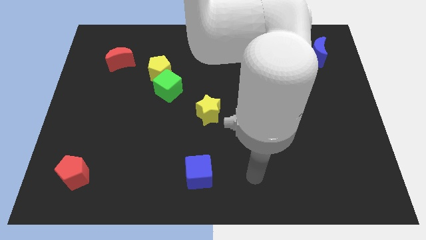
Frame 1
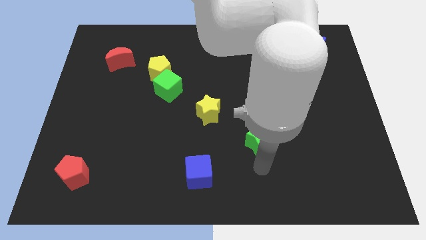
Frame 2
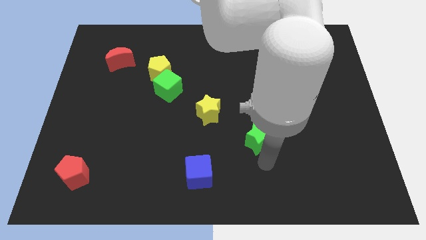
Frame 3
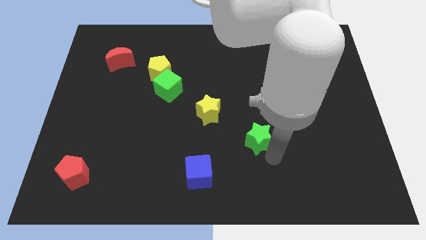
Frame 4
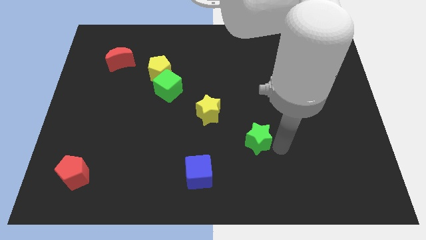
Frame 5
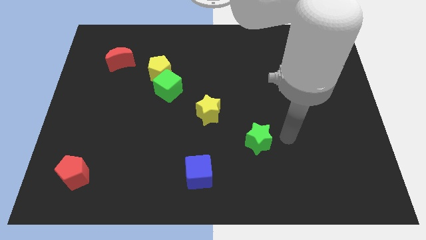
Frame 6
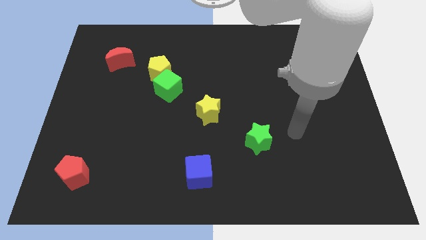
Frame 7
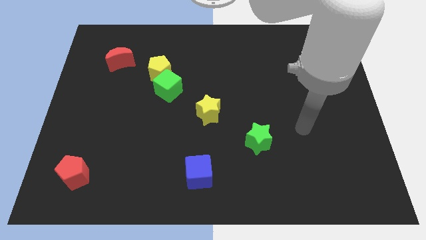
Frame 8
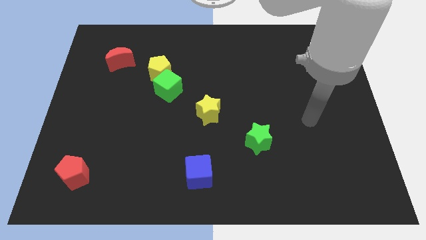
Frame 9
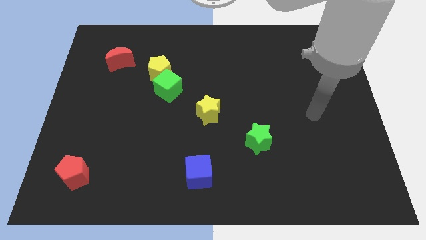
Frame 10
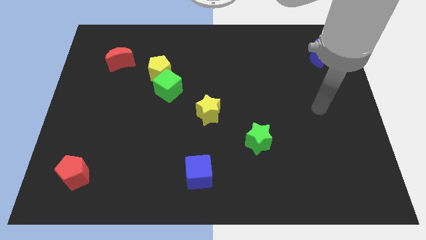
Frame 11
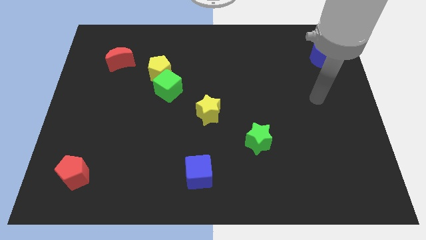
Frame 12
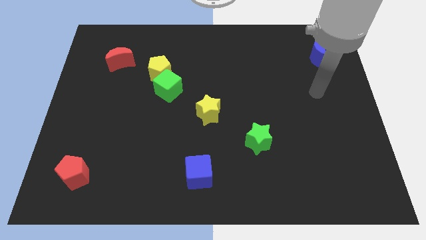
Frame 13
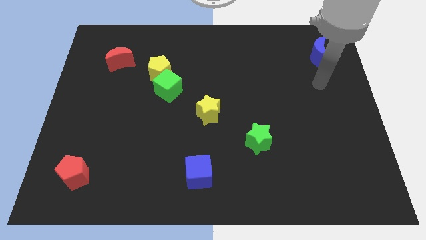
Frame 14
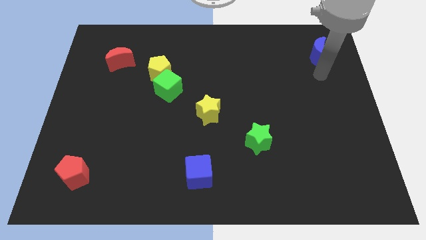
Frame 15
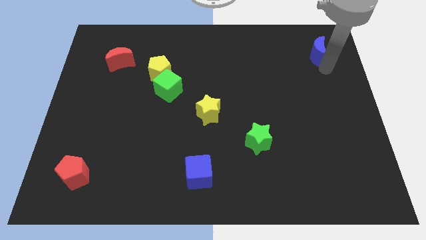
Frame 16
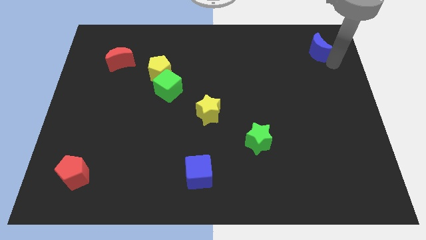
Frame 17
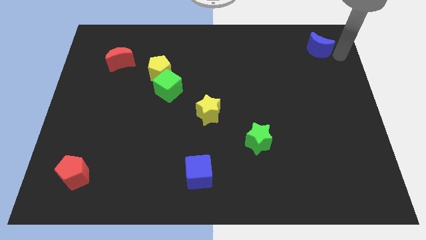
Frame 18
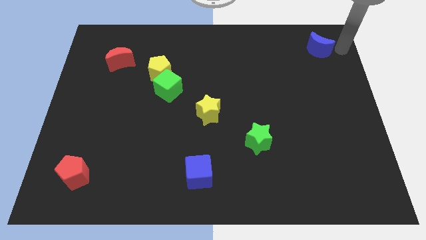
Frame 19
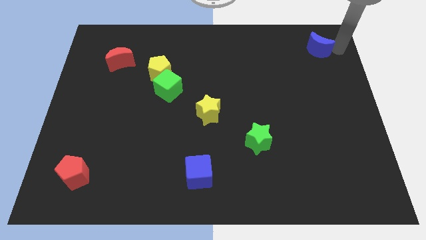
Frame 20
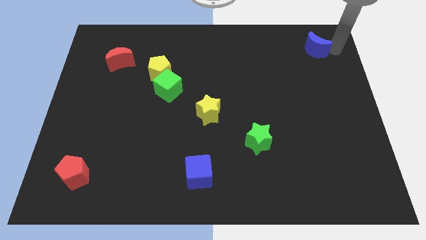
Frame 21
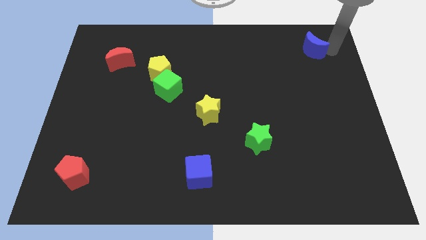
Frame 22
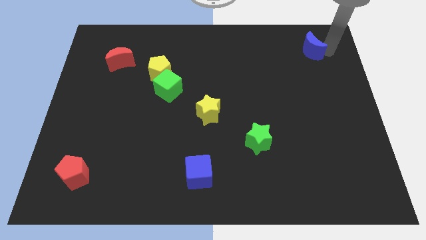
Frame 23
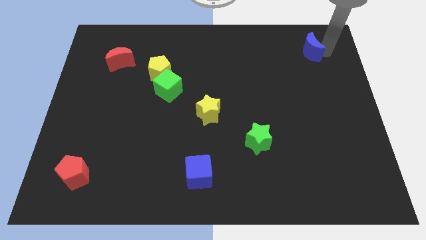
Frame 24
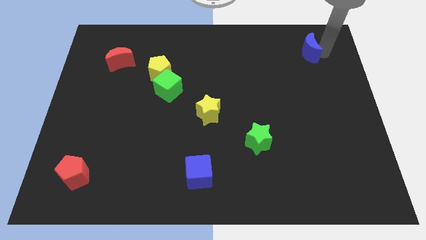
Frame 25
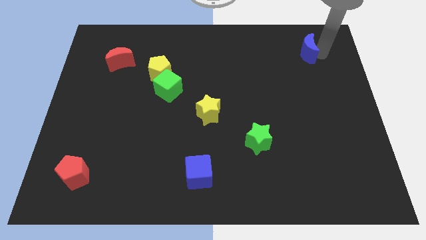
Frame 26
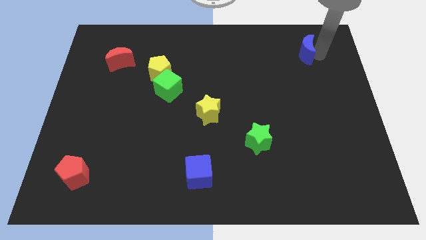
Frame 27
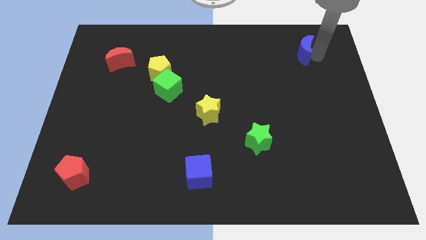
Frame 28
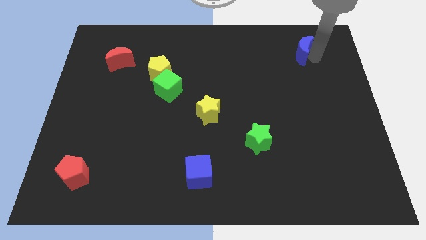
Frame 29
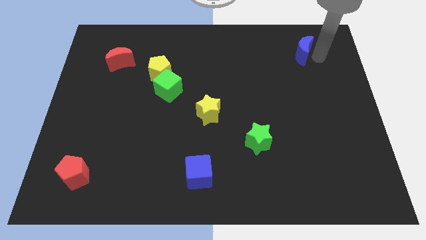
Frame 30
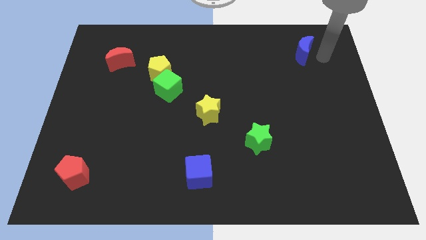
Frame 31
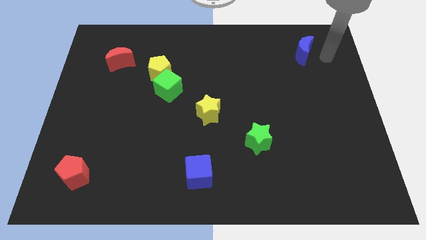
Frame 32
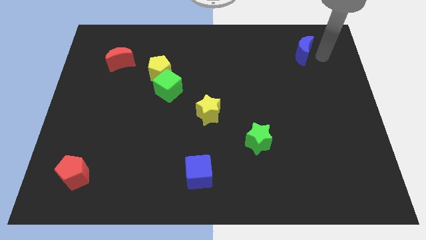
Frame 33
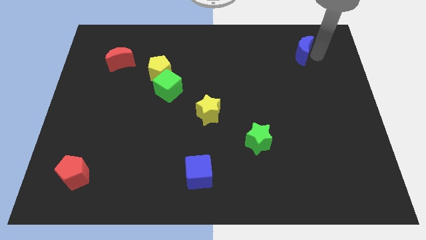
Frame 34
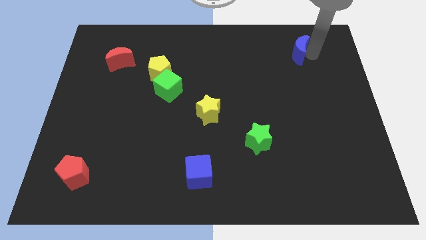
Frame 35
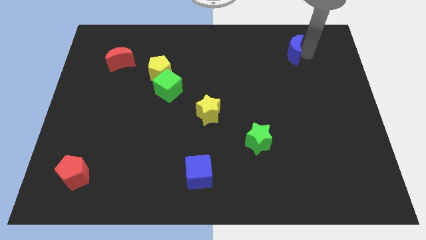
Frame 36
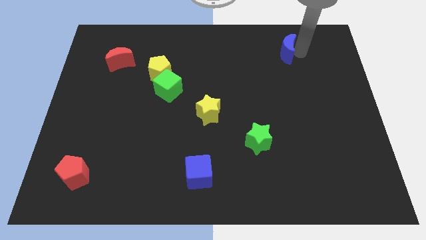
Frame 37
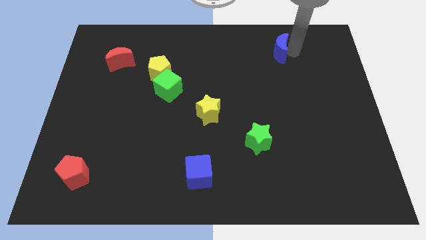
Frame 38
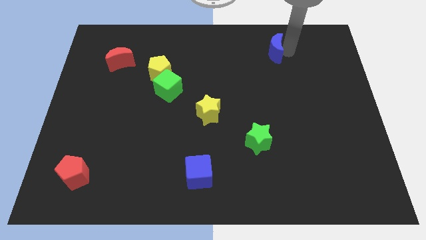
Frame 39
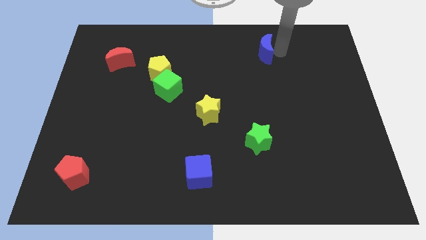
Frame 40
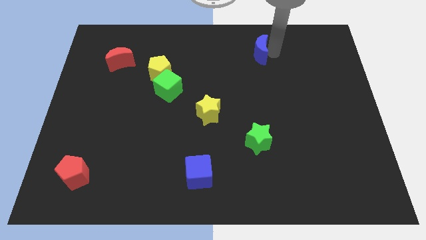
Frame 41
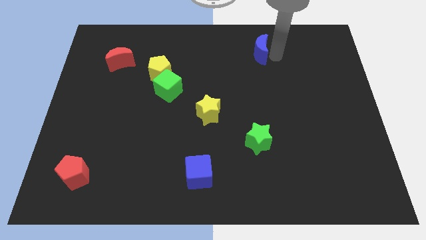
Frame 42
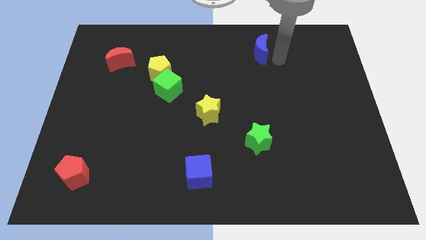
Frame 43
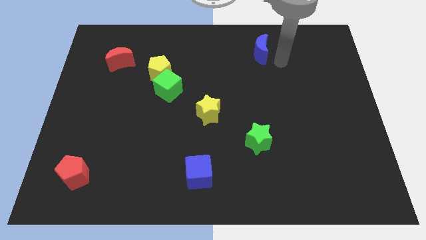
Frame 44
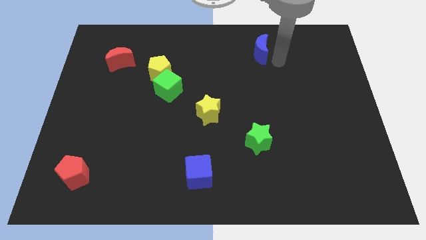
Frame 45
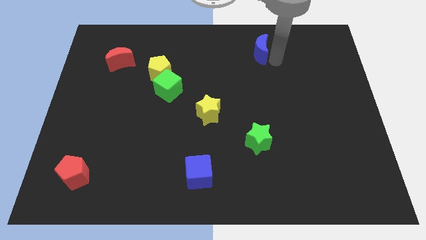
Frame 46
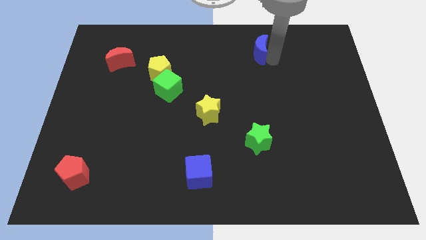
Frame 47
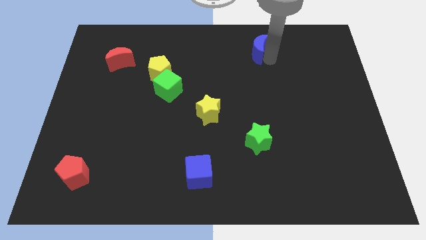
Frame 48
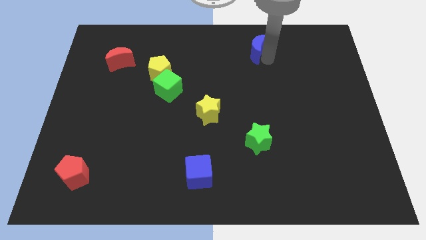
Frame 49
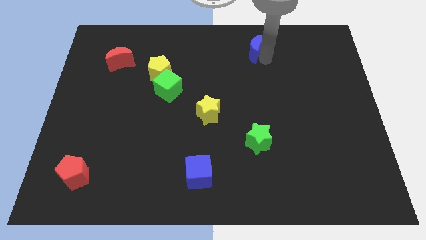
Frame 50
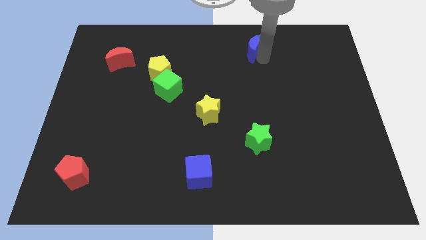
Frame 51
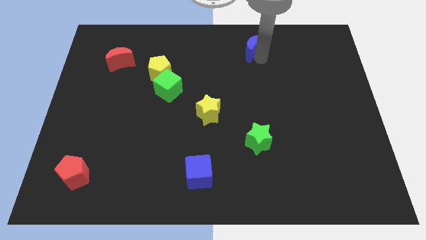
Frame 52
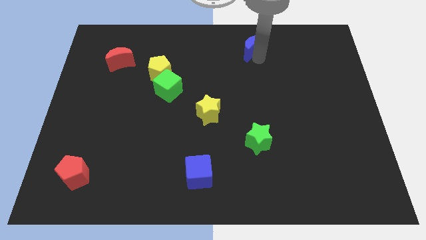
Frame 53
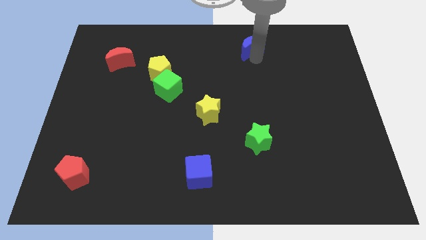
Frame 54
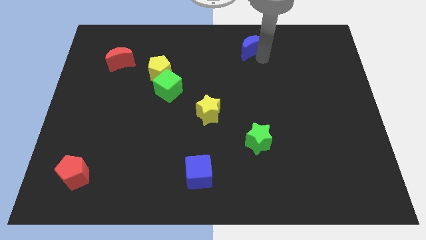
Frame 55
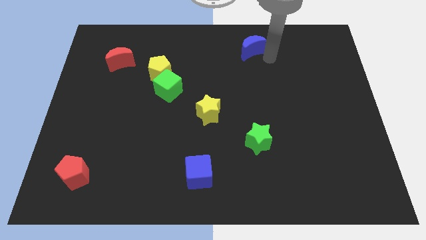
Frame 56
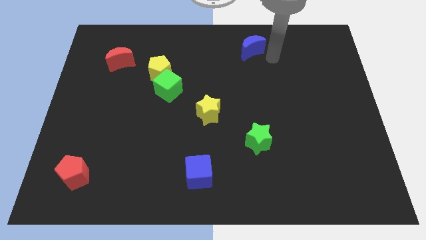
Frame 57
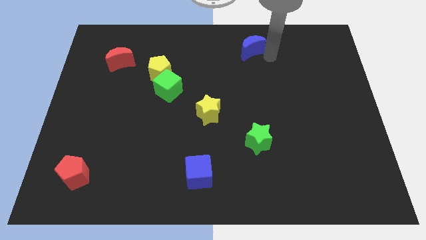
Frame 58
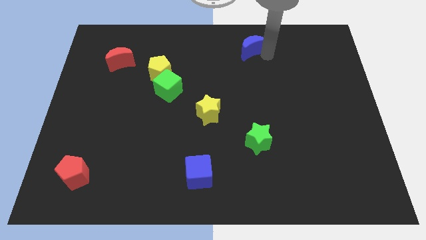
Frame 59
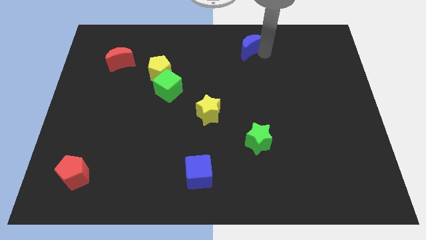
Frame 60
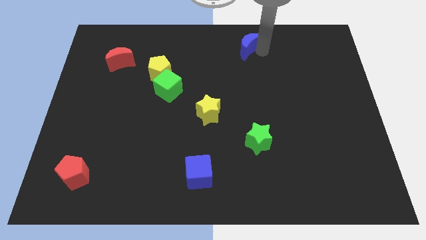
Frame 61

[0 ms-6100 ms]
move the blue moon to the top side
